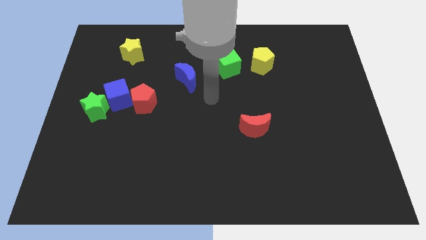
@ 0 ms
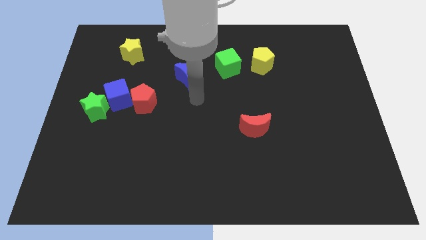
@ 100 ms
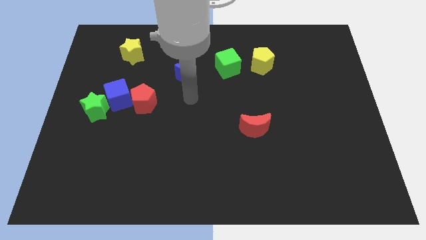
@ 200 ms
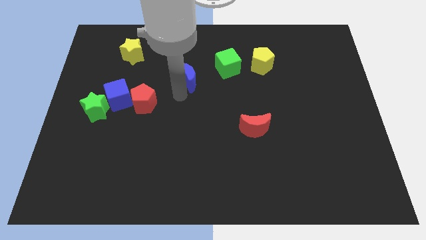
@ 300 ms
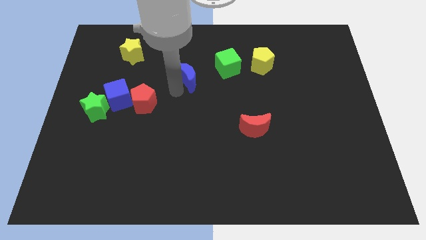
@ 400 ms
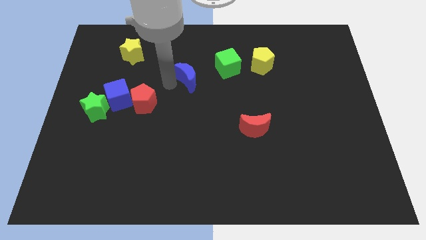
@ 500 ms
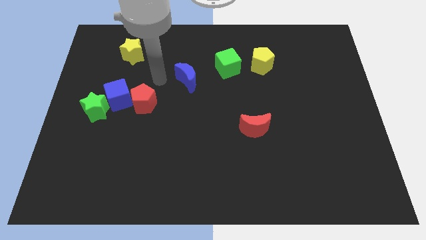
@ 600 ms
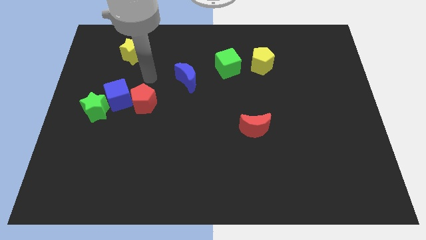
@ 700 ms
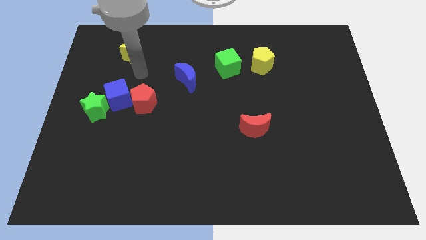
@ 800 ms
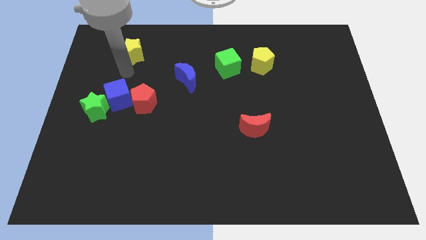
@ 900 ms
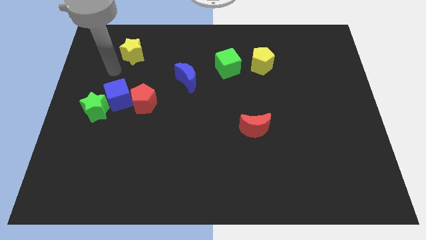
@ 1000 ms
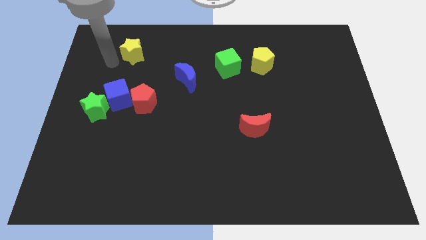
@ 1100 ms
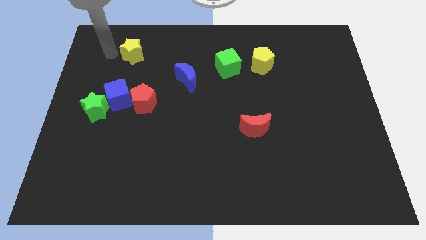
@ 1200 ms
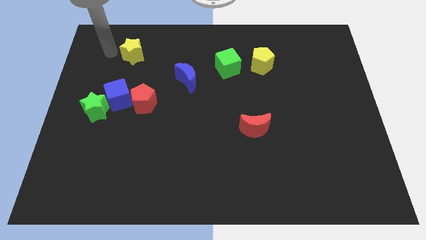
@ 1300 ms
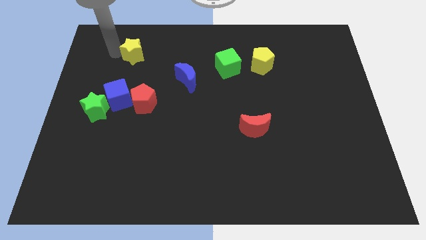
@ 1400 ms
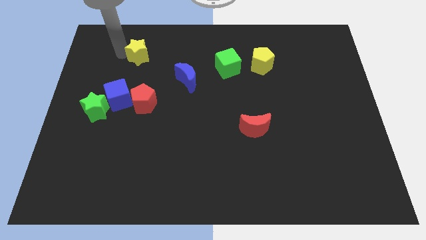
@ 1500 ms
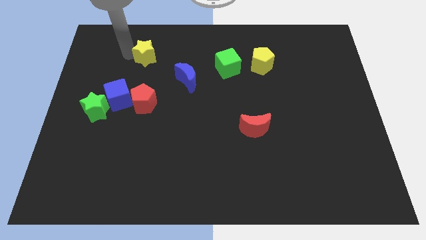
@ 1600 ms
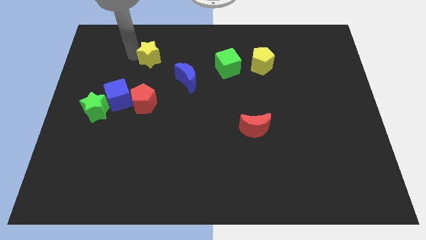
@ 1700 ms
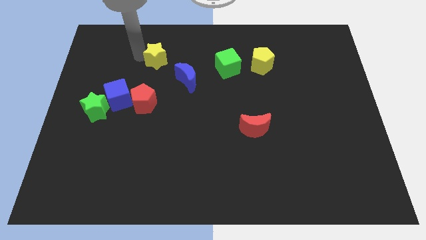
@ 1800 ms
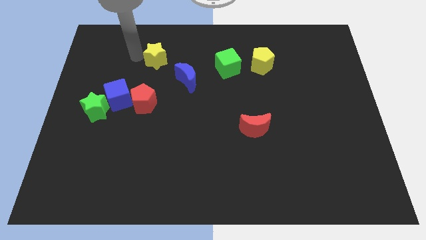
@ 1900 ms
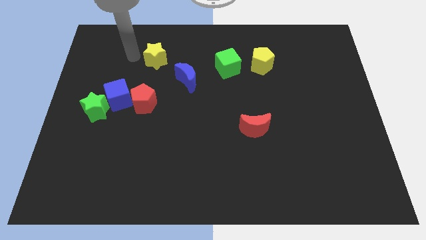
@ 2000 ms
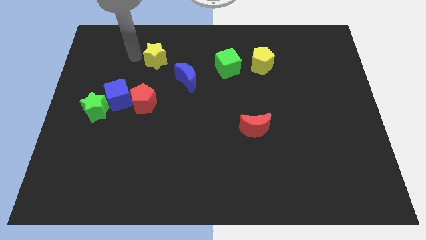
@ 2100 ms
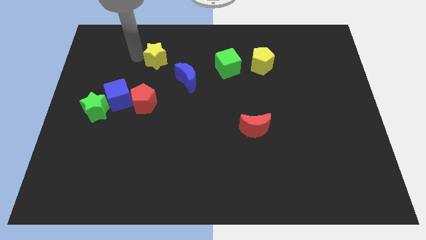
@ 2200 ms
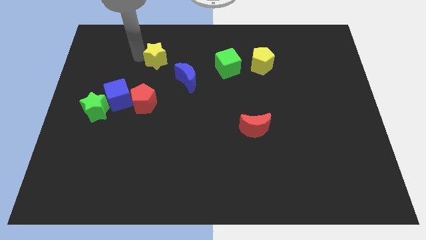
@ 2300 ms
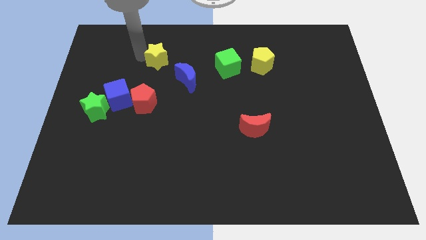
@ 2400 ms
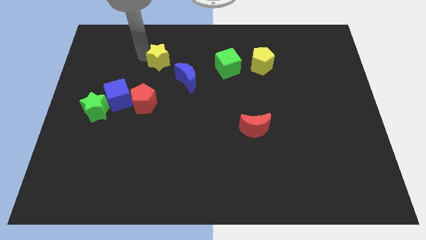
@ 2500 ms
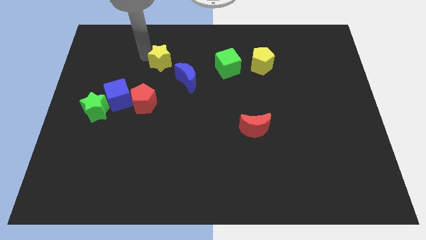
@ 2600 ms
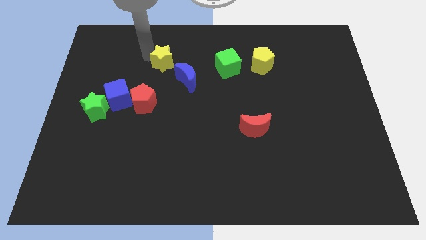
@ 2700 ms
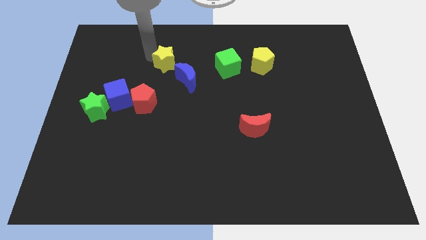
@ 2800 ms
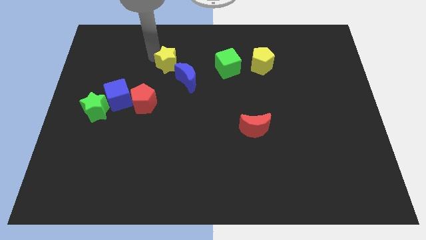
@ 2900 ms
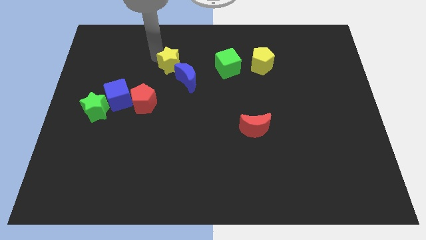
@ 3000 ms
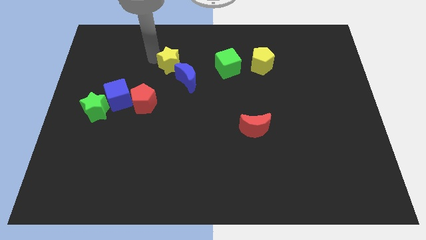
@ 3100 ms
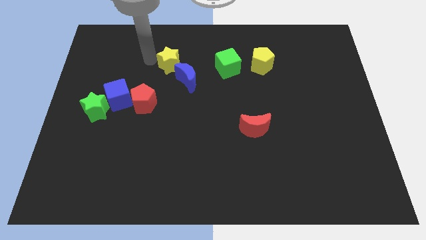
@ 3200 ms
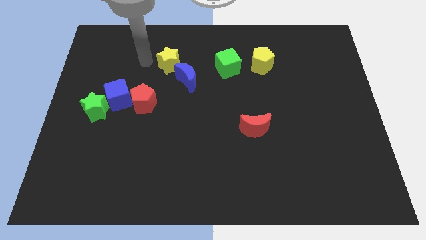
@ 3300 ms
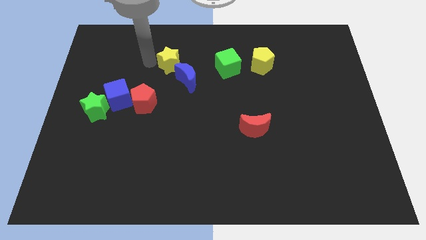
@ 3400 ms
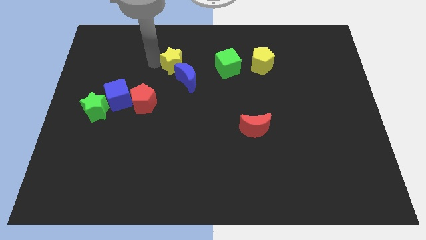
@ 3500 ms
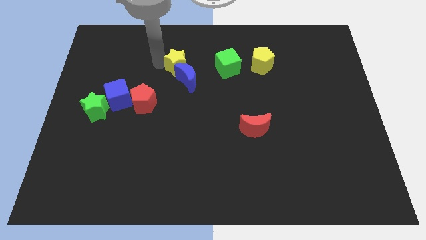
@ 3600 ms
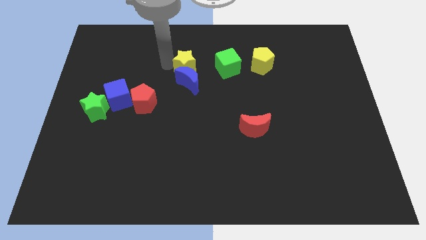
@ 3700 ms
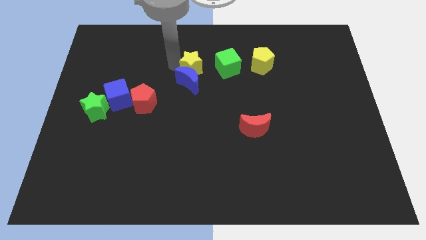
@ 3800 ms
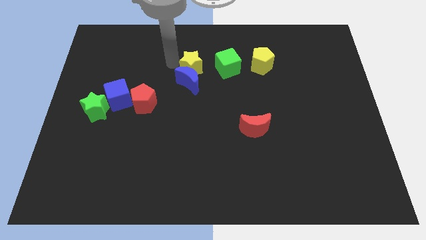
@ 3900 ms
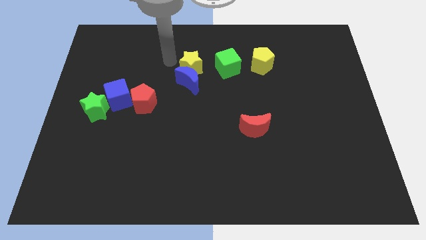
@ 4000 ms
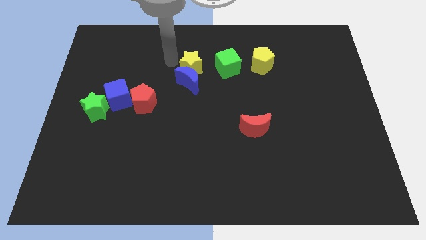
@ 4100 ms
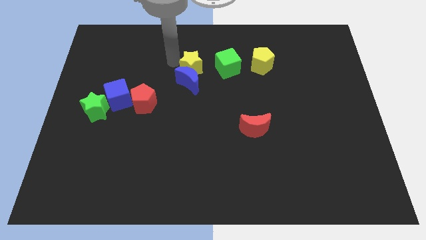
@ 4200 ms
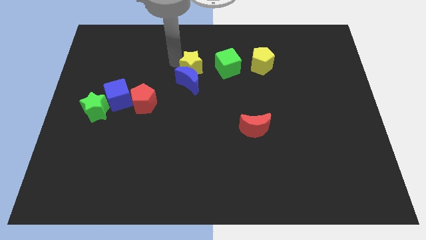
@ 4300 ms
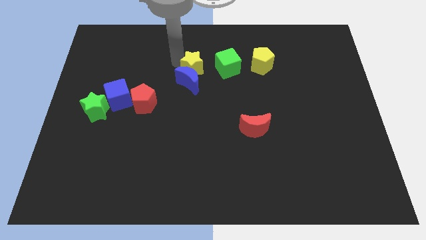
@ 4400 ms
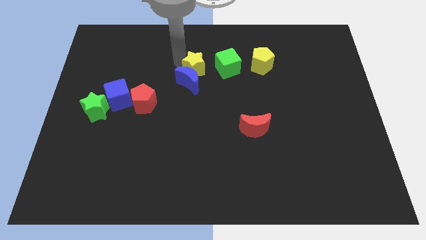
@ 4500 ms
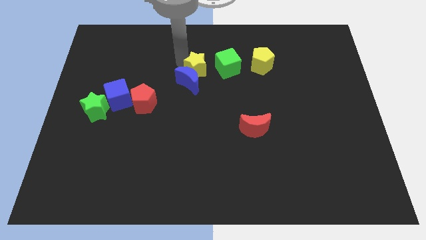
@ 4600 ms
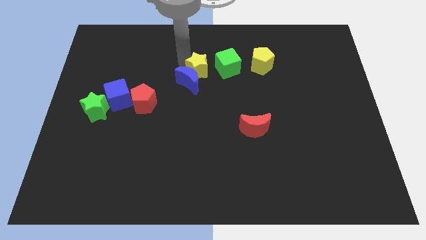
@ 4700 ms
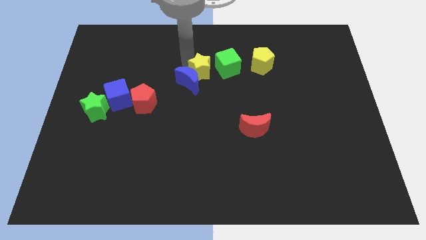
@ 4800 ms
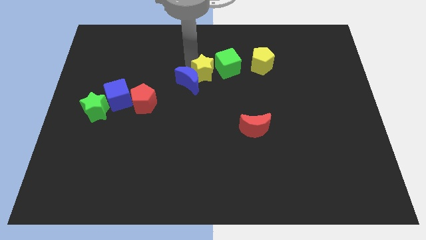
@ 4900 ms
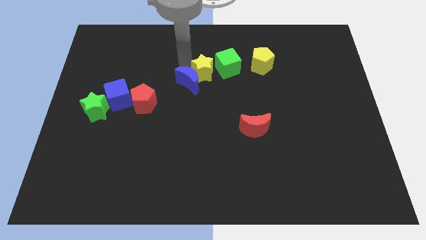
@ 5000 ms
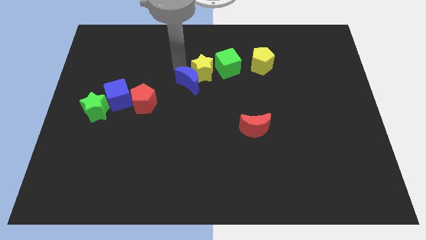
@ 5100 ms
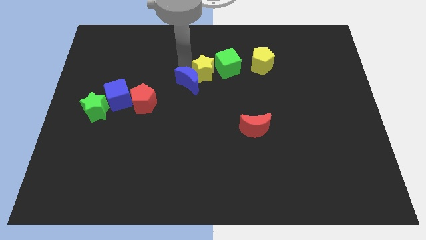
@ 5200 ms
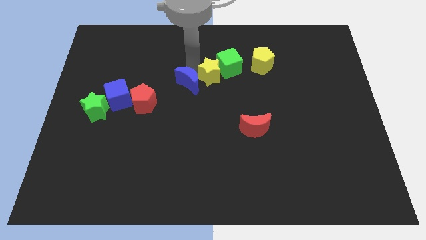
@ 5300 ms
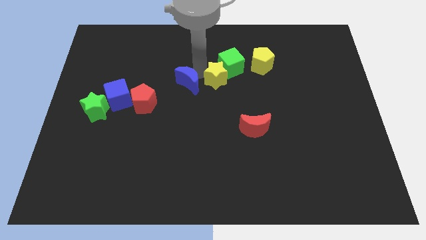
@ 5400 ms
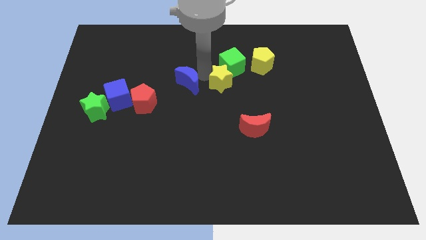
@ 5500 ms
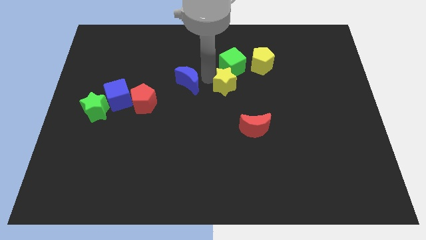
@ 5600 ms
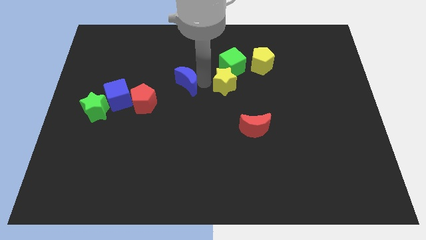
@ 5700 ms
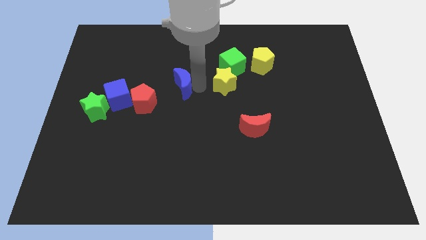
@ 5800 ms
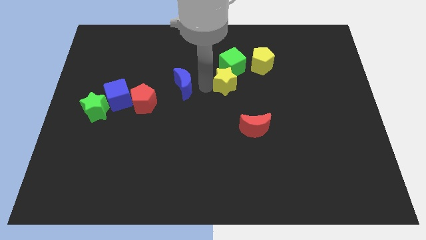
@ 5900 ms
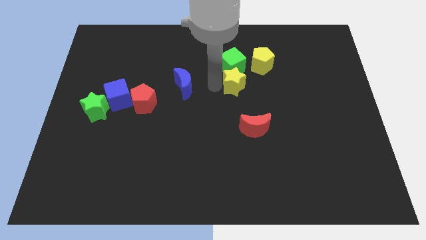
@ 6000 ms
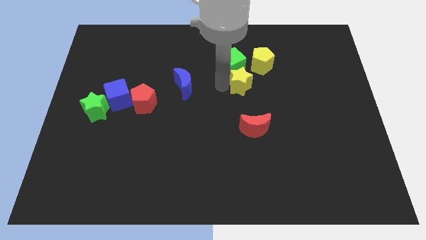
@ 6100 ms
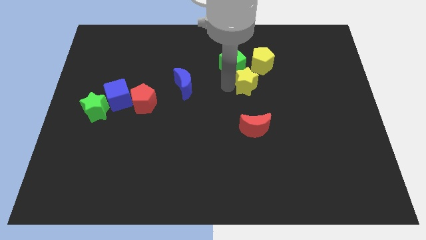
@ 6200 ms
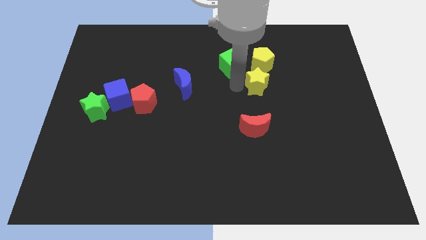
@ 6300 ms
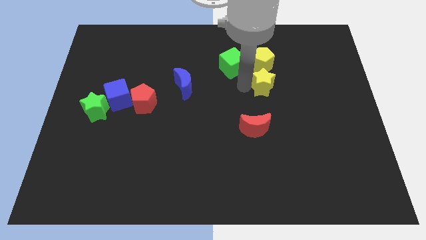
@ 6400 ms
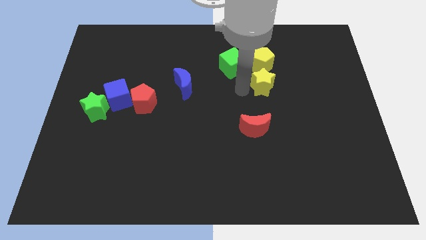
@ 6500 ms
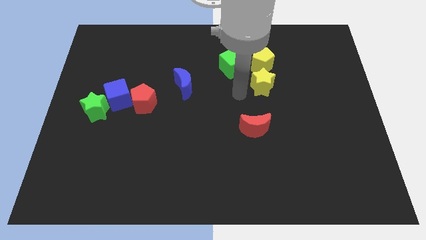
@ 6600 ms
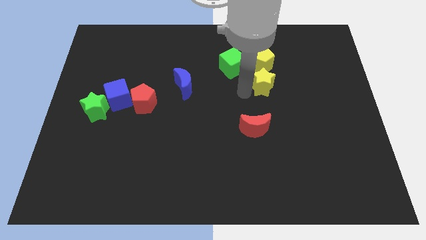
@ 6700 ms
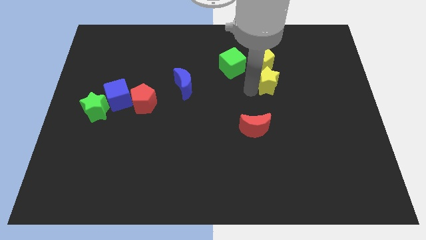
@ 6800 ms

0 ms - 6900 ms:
slide the yellow star diagonally down and to the right of the yellow pentagon

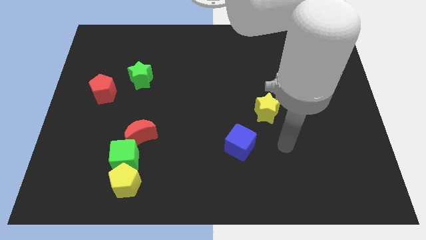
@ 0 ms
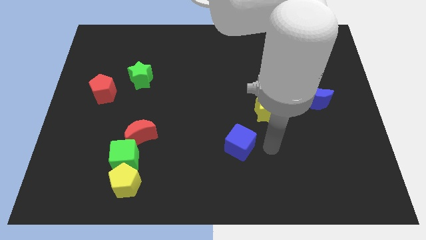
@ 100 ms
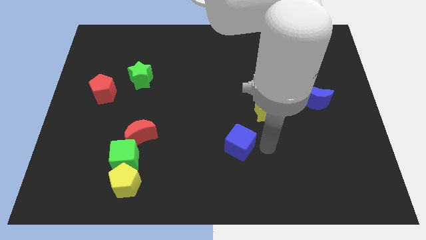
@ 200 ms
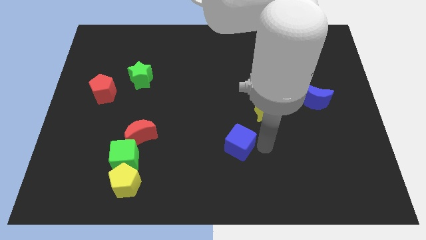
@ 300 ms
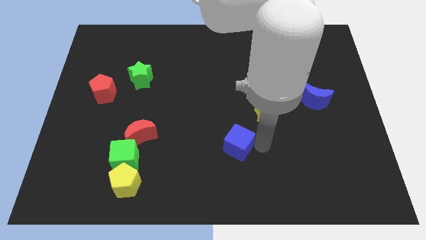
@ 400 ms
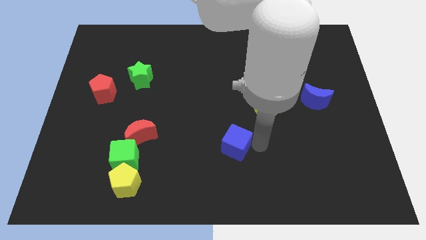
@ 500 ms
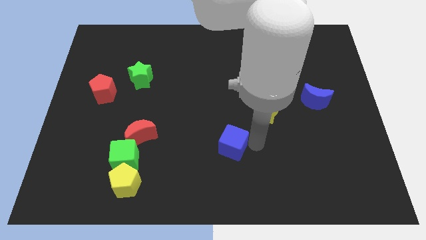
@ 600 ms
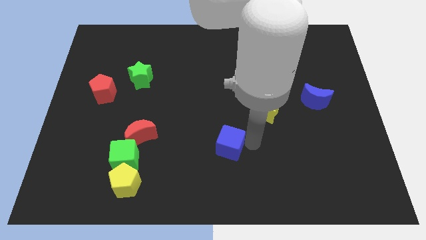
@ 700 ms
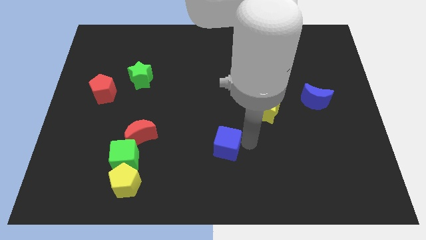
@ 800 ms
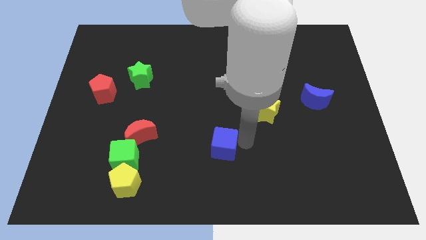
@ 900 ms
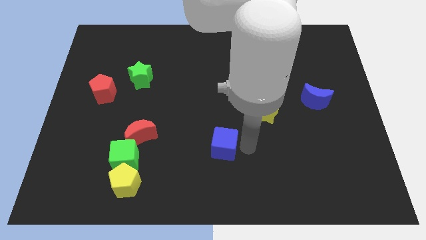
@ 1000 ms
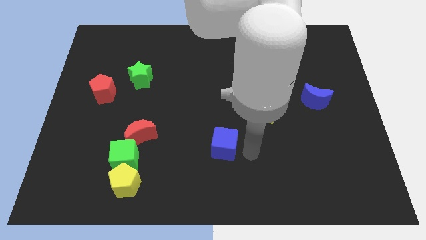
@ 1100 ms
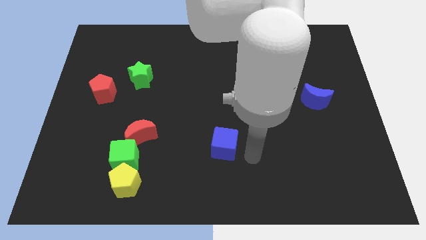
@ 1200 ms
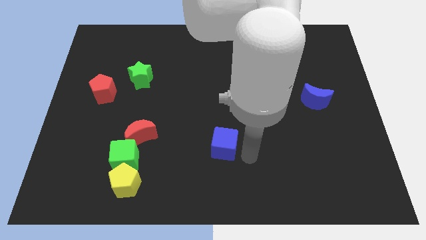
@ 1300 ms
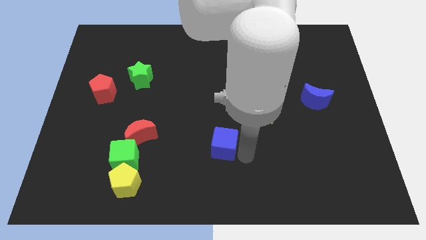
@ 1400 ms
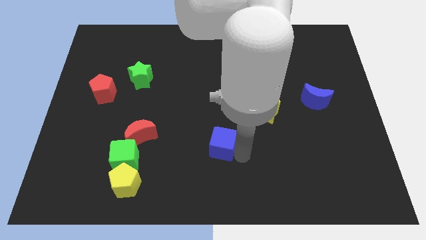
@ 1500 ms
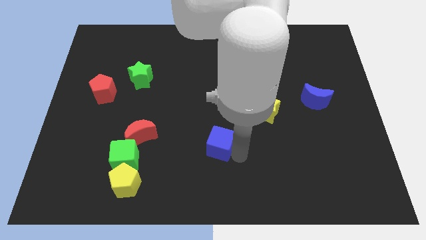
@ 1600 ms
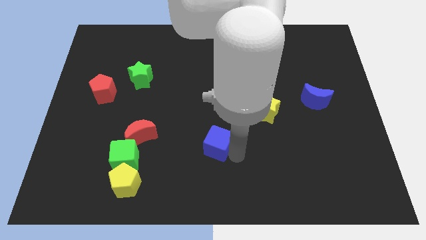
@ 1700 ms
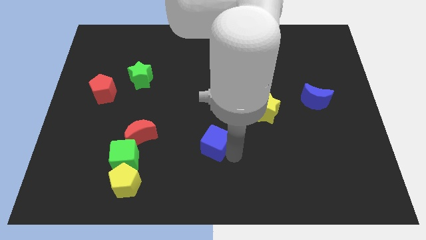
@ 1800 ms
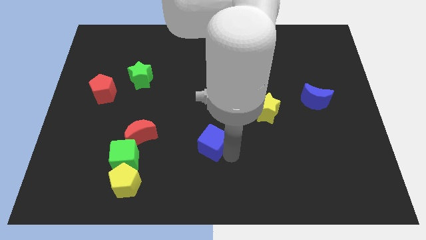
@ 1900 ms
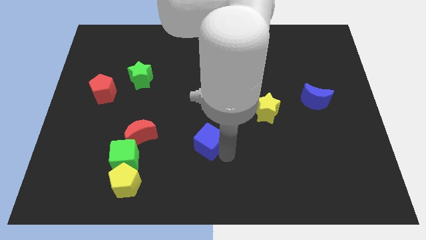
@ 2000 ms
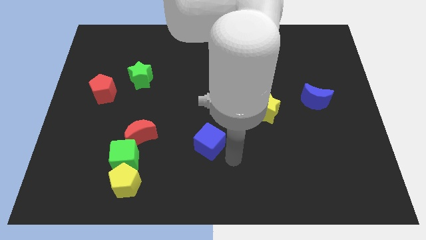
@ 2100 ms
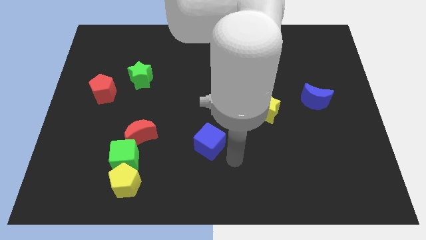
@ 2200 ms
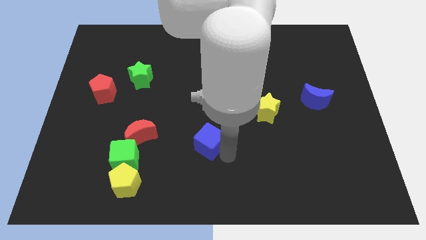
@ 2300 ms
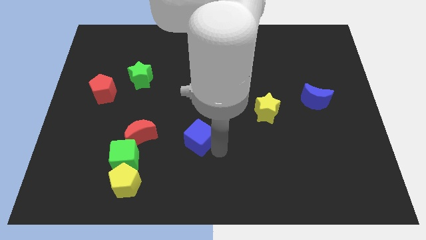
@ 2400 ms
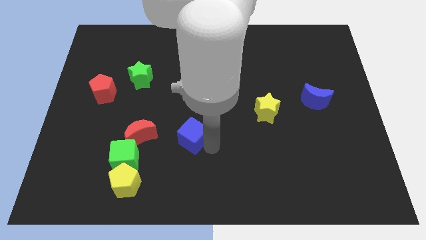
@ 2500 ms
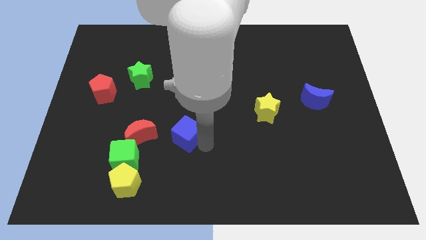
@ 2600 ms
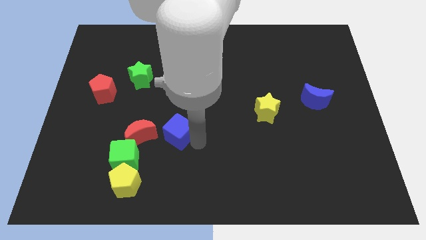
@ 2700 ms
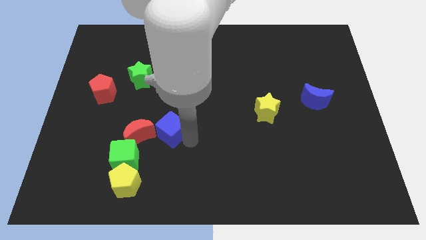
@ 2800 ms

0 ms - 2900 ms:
move the blue cube to the top right side of the red moon
